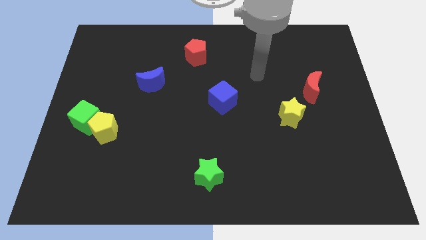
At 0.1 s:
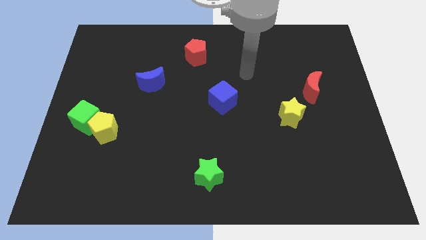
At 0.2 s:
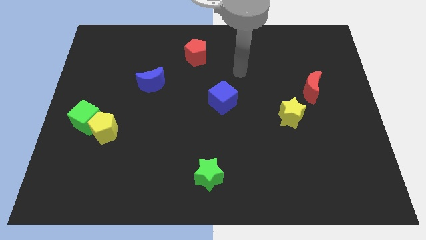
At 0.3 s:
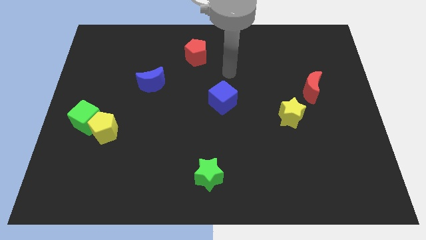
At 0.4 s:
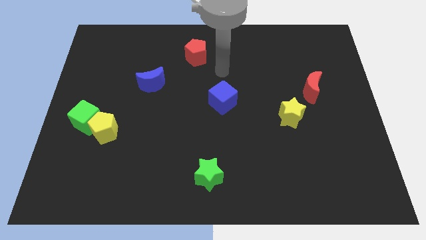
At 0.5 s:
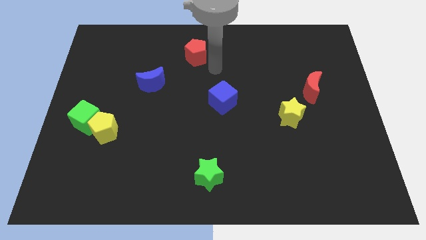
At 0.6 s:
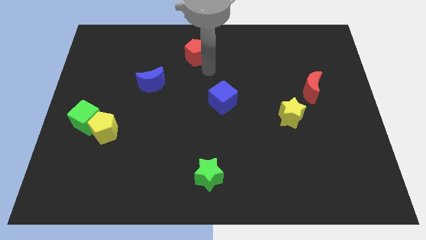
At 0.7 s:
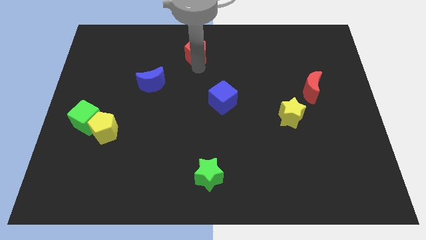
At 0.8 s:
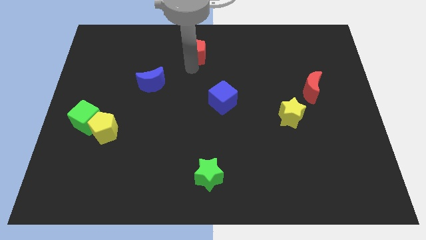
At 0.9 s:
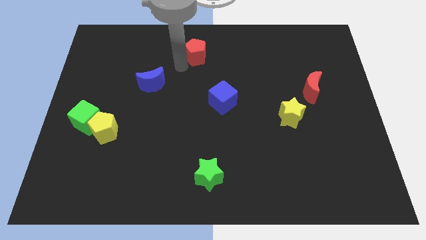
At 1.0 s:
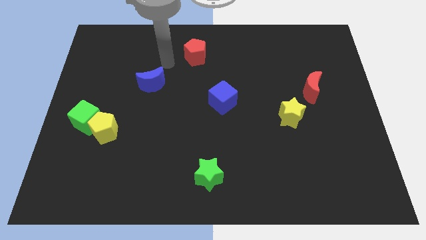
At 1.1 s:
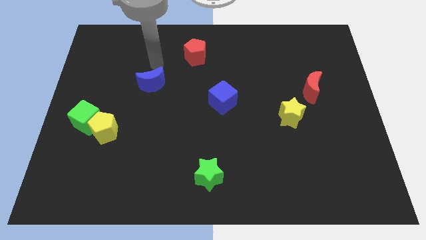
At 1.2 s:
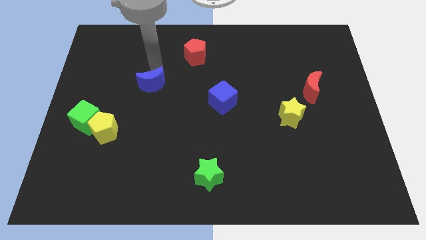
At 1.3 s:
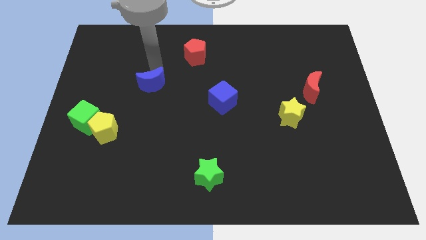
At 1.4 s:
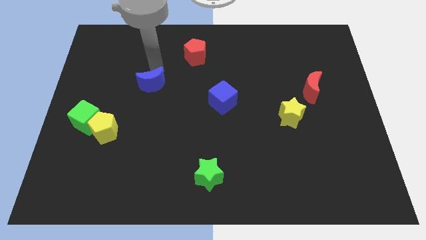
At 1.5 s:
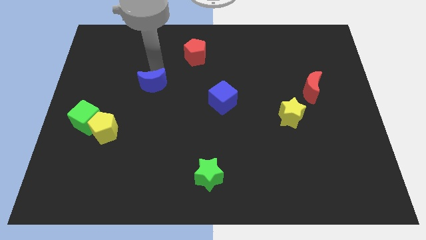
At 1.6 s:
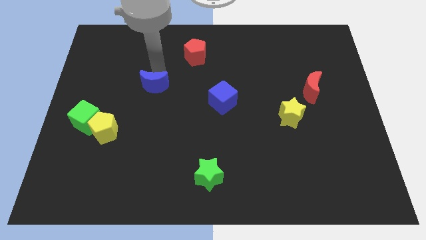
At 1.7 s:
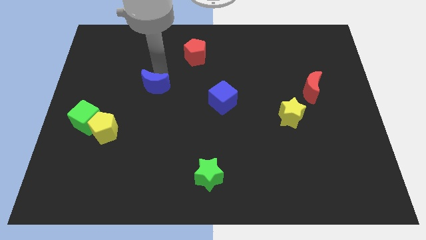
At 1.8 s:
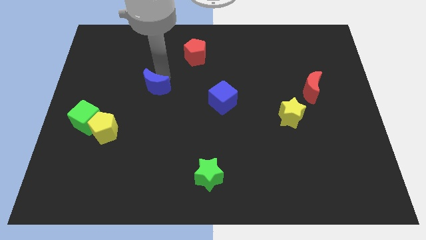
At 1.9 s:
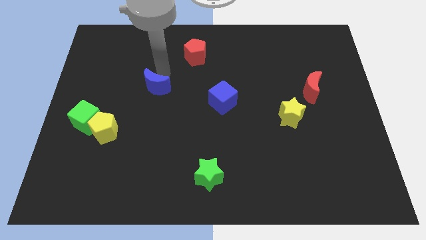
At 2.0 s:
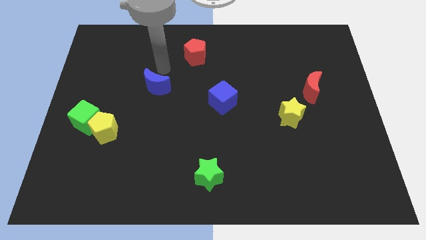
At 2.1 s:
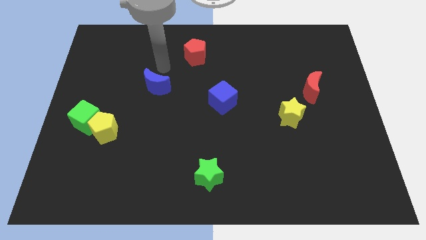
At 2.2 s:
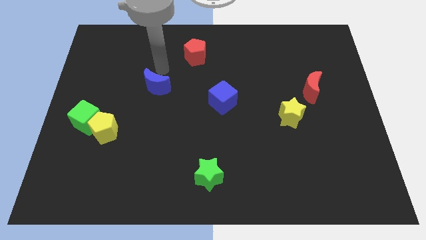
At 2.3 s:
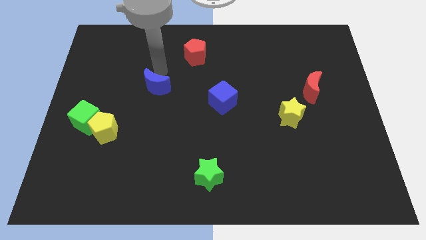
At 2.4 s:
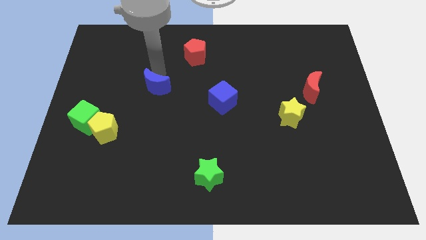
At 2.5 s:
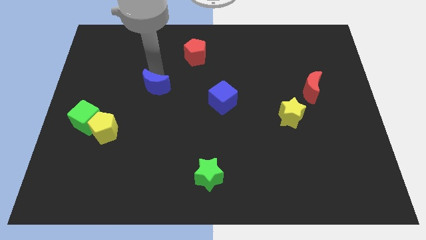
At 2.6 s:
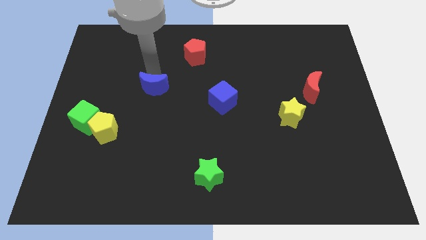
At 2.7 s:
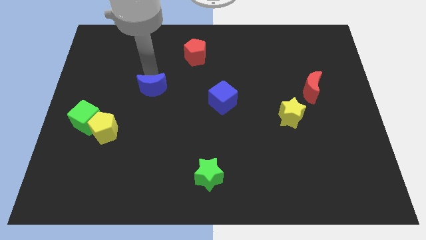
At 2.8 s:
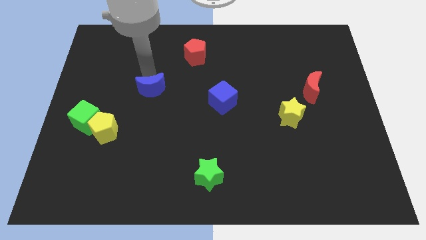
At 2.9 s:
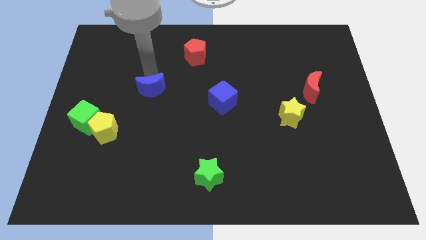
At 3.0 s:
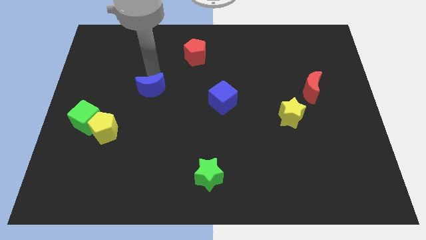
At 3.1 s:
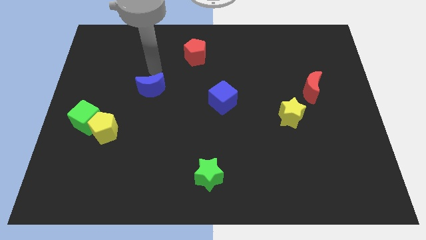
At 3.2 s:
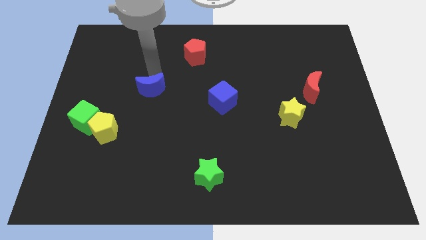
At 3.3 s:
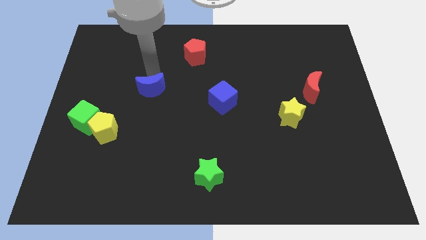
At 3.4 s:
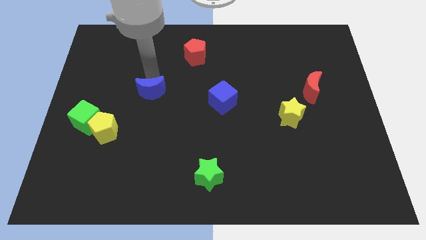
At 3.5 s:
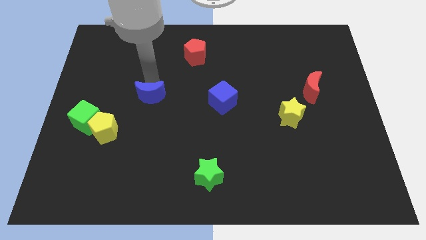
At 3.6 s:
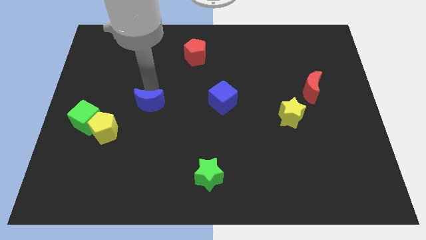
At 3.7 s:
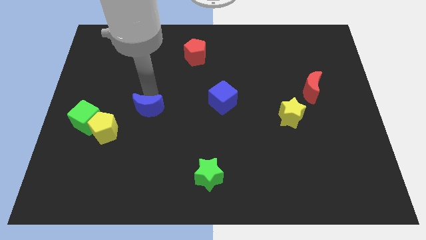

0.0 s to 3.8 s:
push the blue moon down somewhat

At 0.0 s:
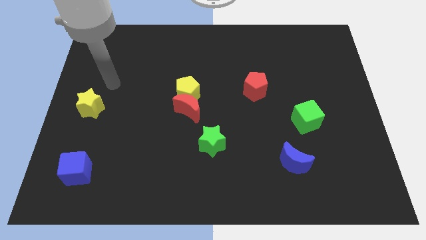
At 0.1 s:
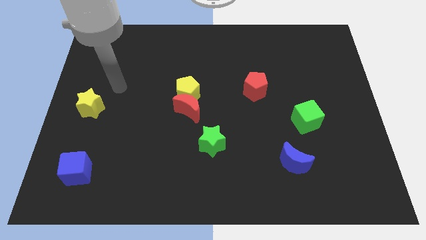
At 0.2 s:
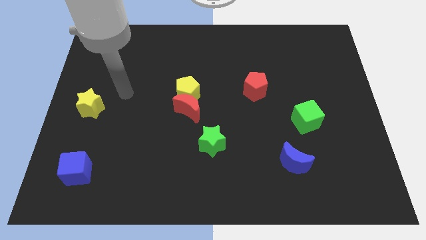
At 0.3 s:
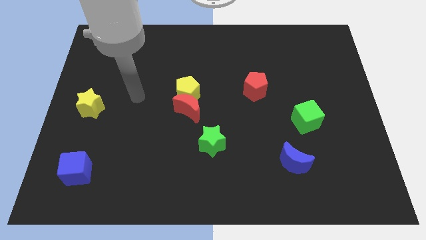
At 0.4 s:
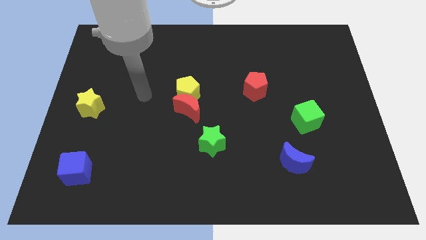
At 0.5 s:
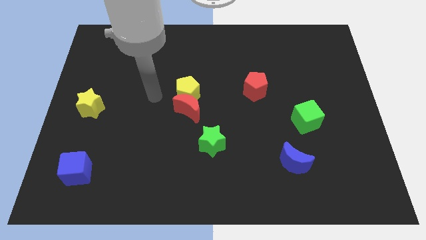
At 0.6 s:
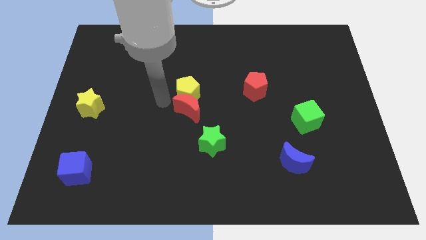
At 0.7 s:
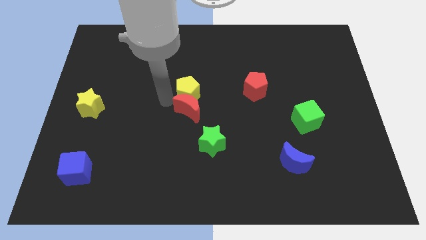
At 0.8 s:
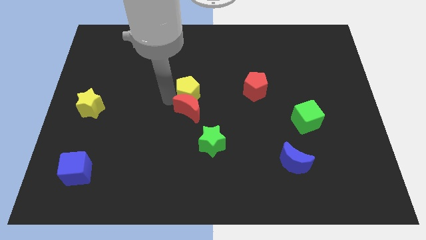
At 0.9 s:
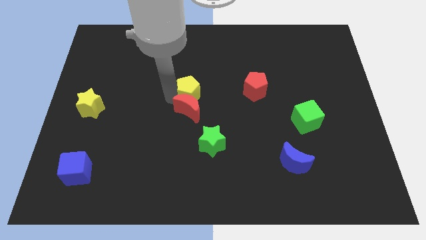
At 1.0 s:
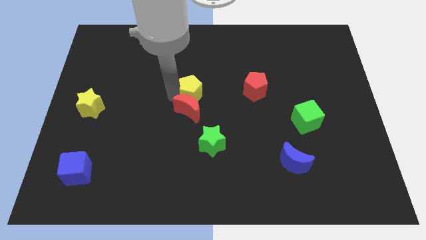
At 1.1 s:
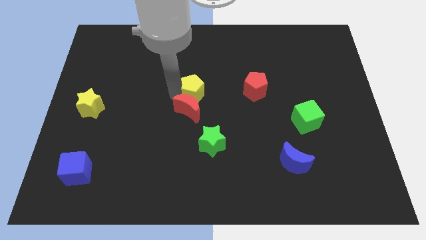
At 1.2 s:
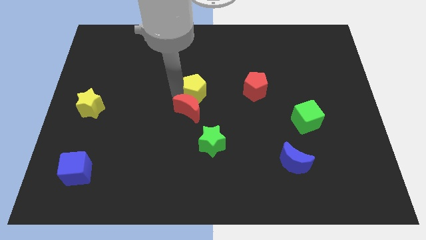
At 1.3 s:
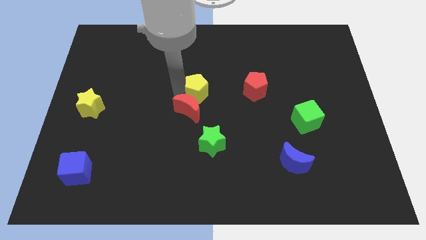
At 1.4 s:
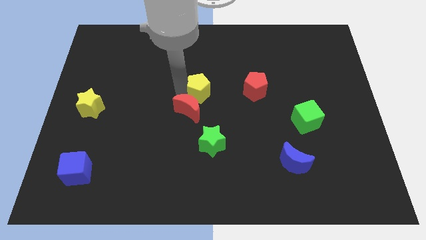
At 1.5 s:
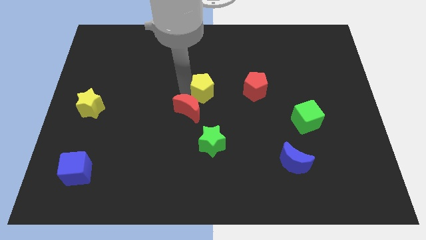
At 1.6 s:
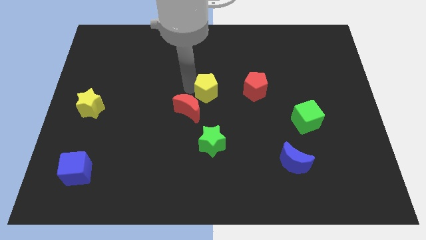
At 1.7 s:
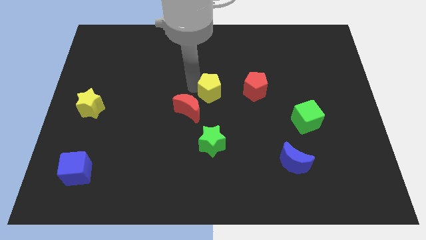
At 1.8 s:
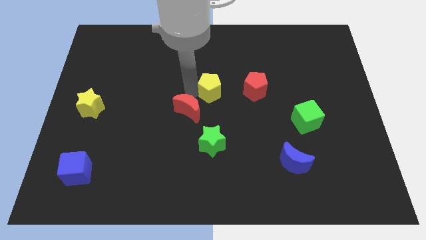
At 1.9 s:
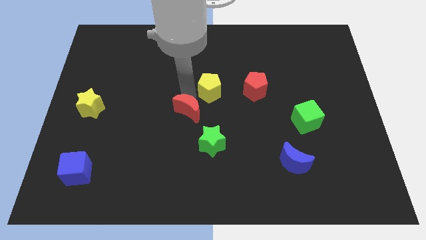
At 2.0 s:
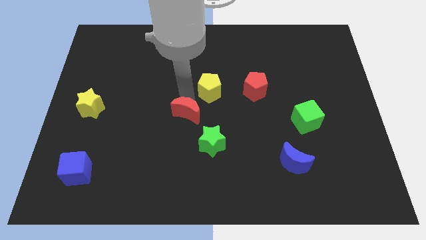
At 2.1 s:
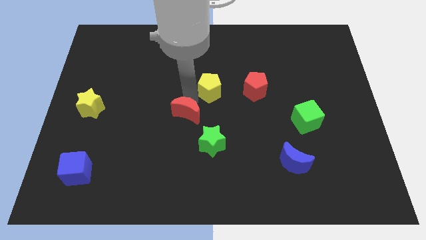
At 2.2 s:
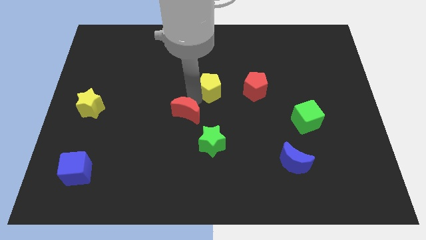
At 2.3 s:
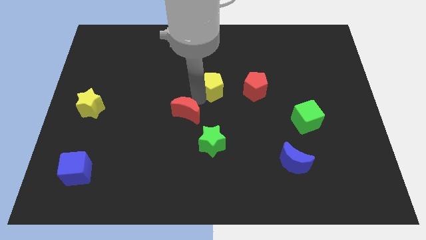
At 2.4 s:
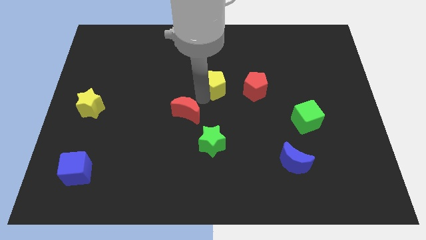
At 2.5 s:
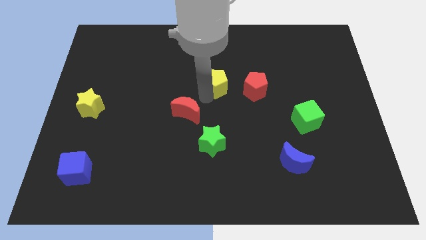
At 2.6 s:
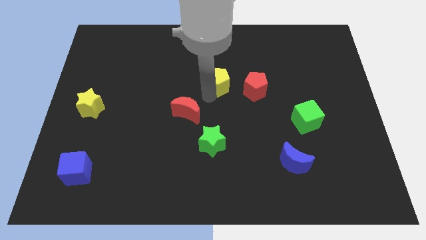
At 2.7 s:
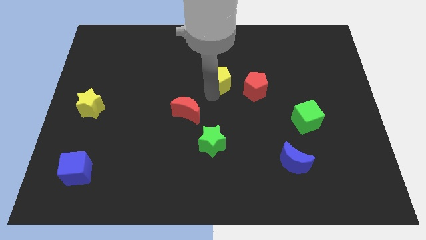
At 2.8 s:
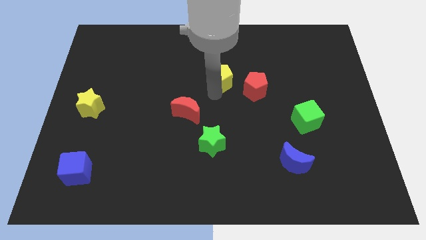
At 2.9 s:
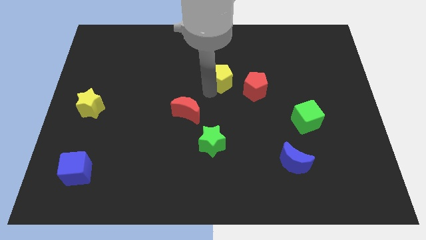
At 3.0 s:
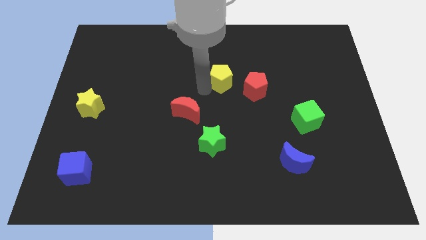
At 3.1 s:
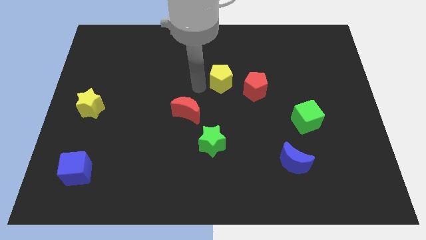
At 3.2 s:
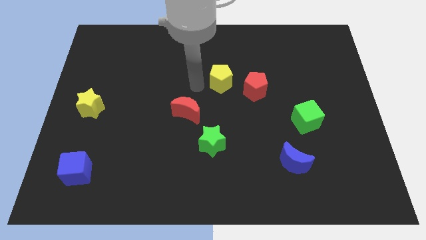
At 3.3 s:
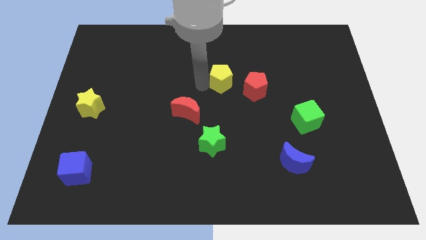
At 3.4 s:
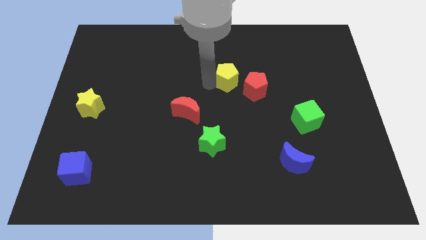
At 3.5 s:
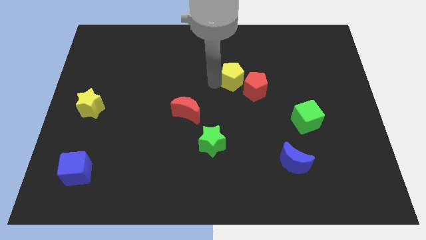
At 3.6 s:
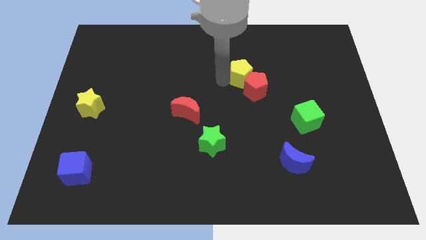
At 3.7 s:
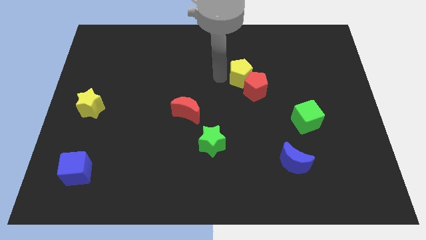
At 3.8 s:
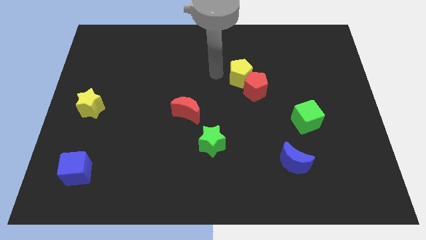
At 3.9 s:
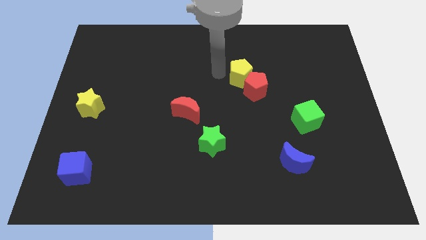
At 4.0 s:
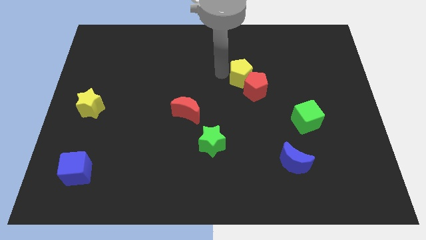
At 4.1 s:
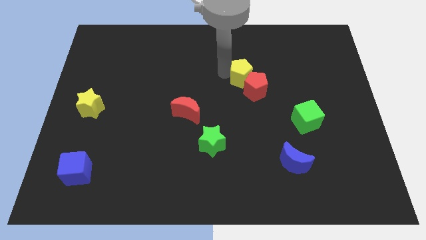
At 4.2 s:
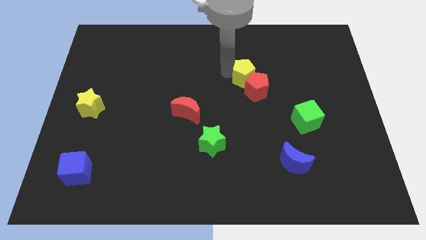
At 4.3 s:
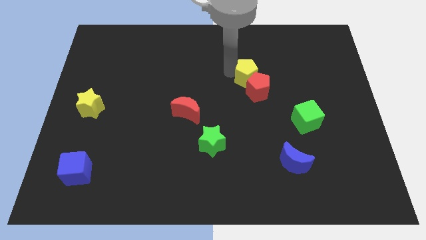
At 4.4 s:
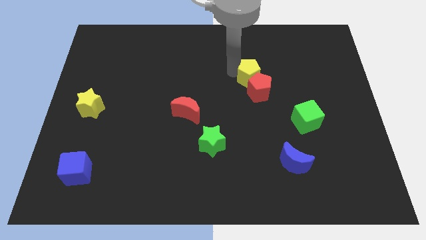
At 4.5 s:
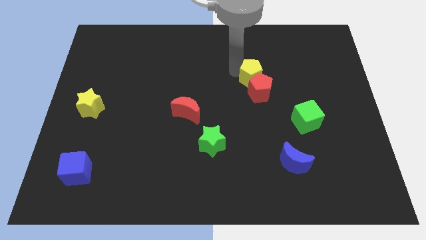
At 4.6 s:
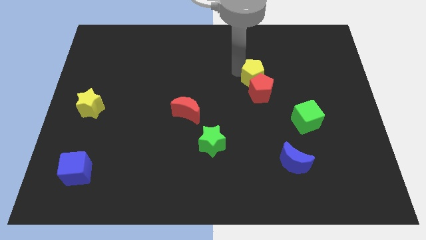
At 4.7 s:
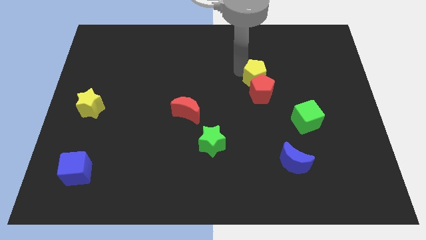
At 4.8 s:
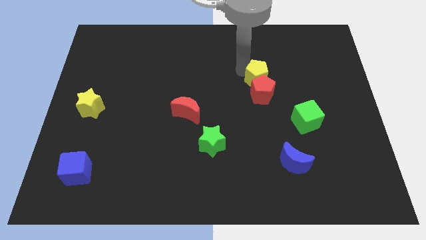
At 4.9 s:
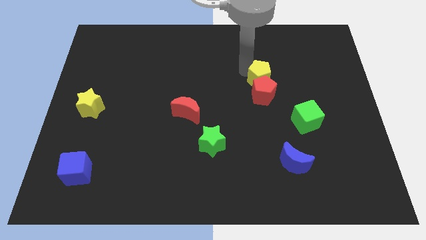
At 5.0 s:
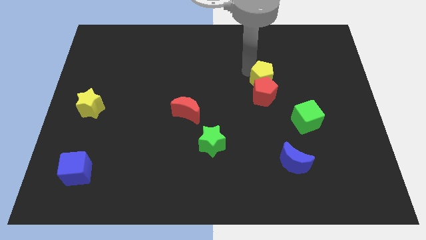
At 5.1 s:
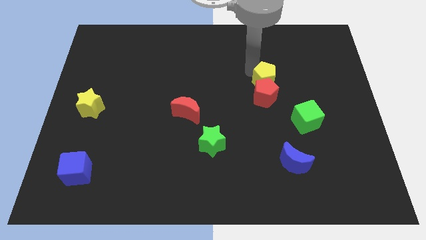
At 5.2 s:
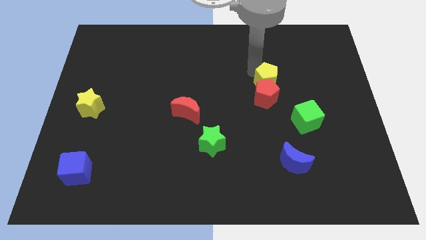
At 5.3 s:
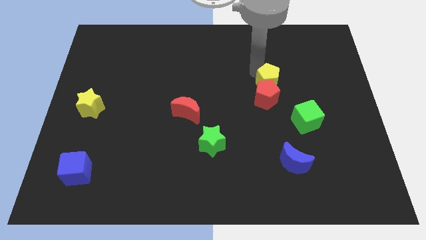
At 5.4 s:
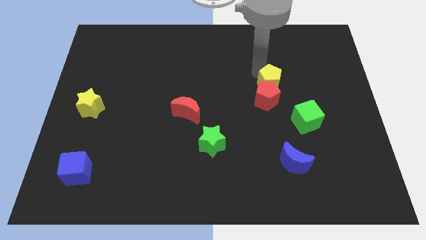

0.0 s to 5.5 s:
push the yellow pentagon to the right
